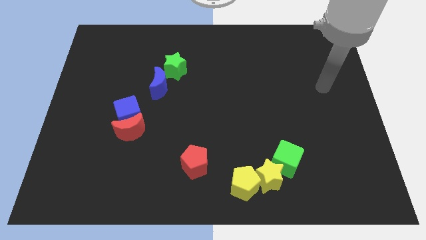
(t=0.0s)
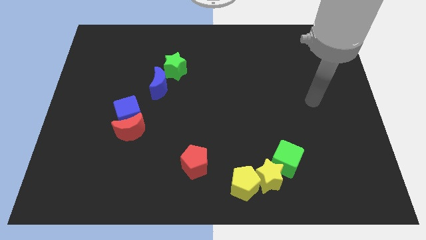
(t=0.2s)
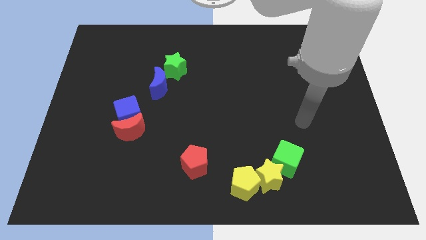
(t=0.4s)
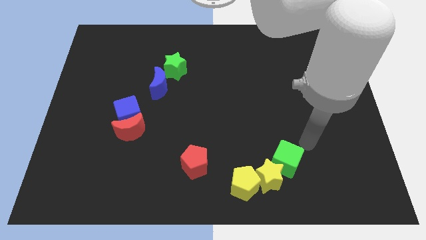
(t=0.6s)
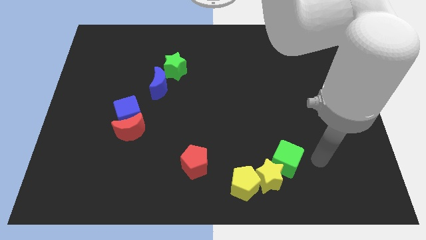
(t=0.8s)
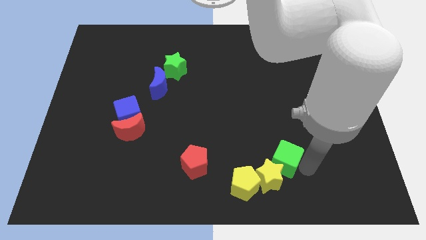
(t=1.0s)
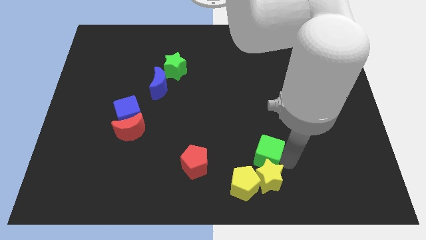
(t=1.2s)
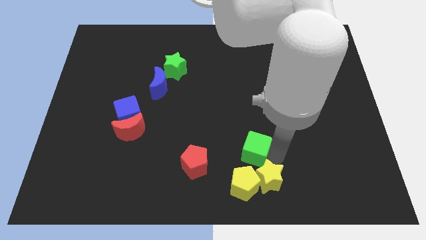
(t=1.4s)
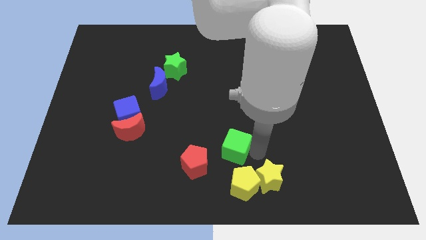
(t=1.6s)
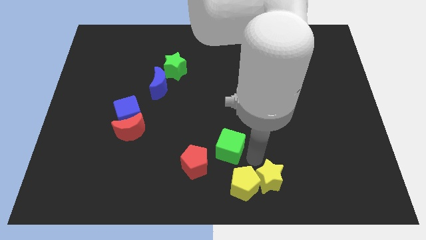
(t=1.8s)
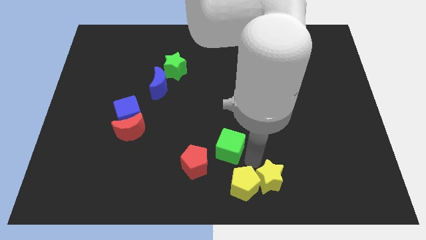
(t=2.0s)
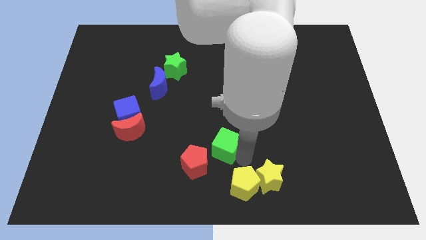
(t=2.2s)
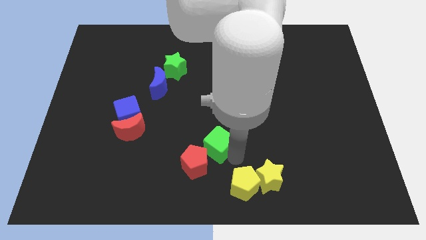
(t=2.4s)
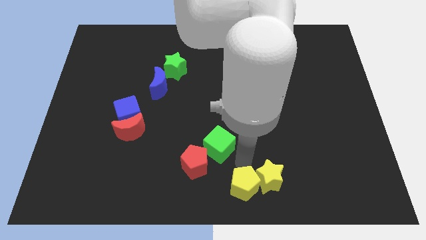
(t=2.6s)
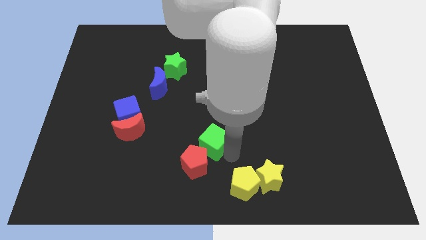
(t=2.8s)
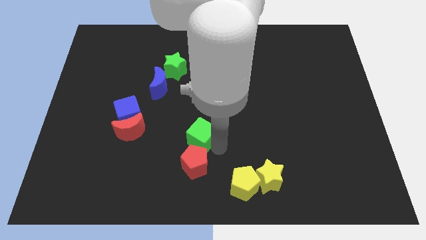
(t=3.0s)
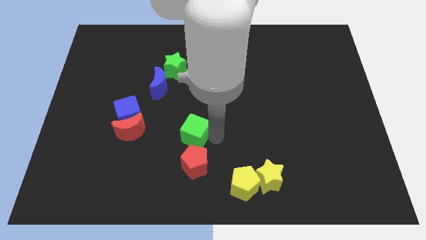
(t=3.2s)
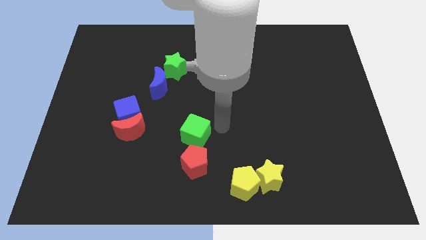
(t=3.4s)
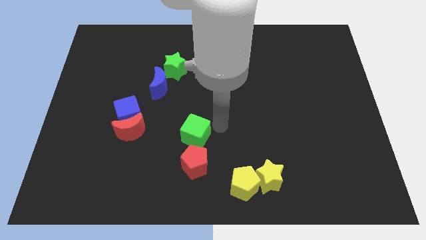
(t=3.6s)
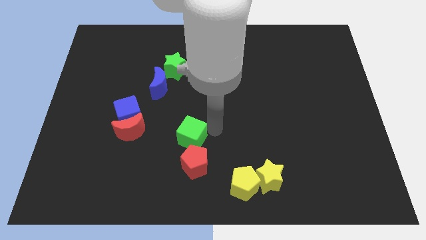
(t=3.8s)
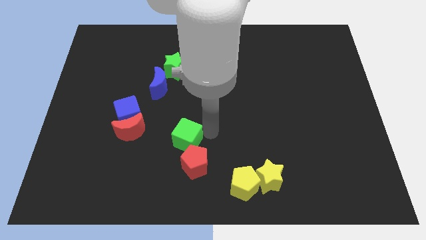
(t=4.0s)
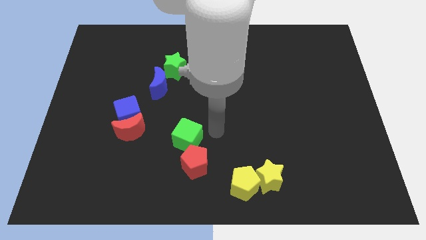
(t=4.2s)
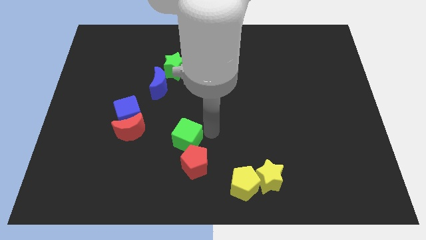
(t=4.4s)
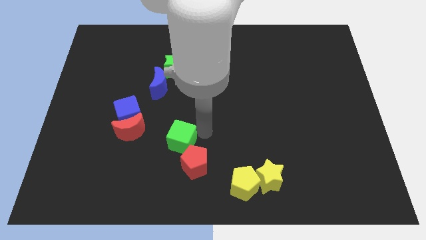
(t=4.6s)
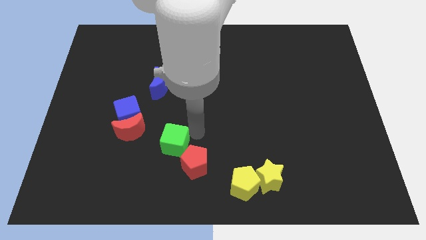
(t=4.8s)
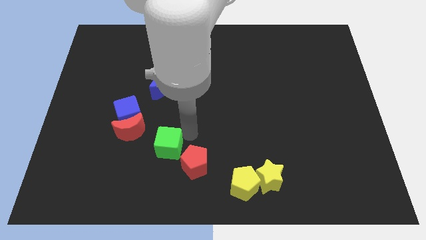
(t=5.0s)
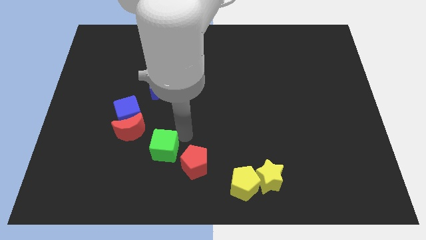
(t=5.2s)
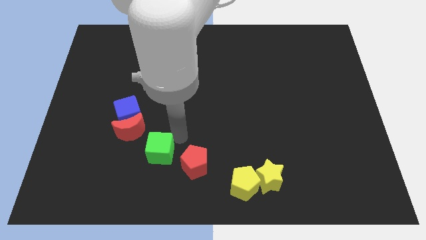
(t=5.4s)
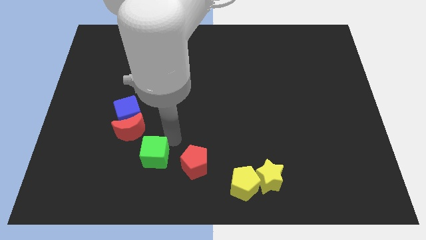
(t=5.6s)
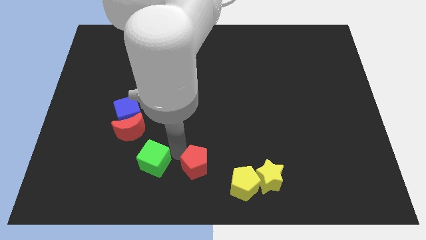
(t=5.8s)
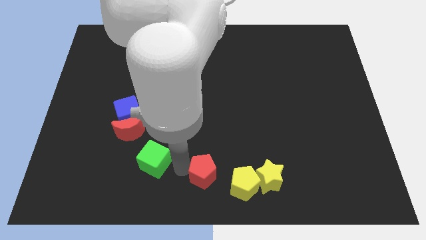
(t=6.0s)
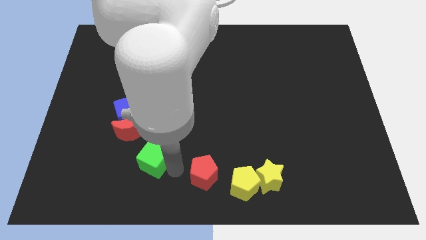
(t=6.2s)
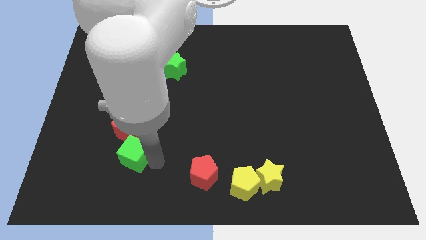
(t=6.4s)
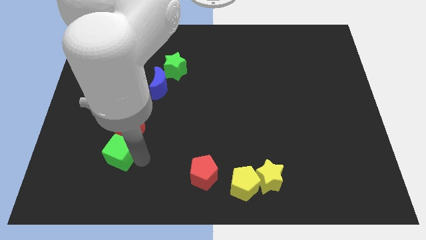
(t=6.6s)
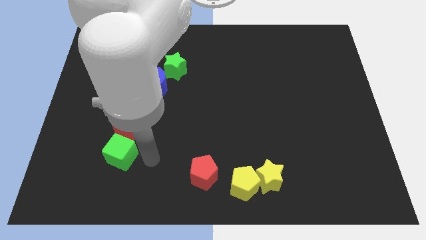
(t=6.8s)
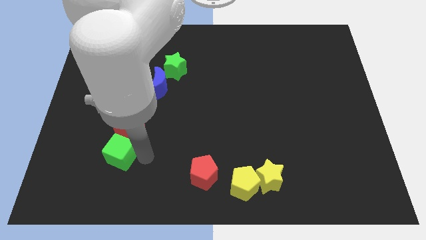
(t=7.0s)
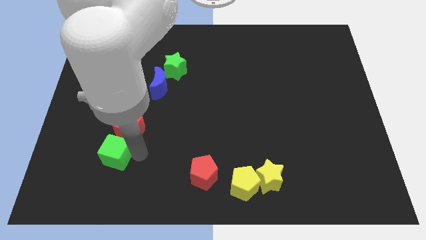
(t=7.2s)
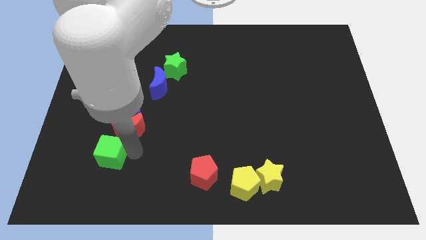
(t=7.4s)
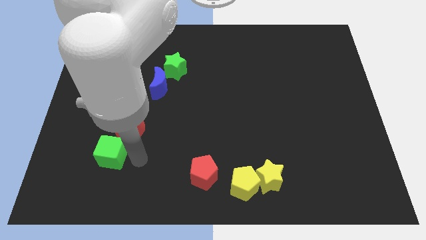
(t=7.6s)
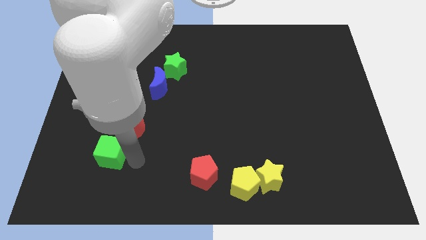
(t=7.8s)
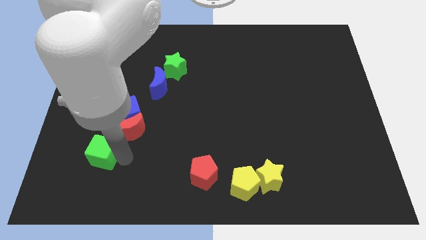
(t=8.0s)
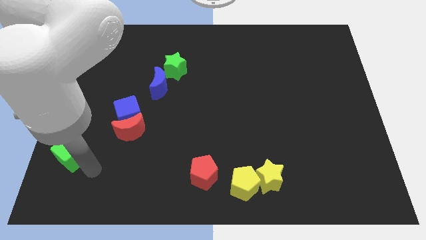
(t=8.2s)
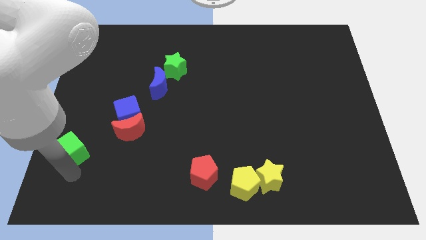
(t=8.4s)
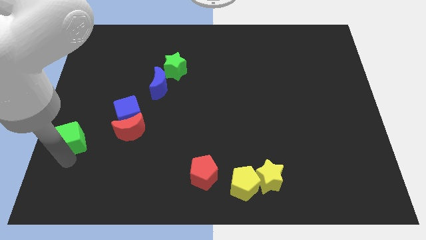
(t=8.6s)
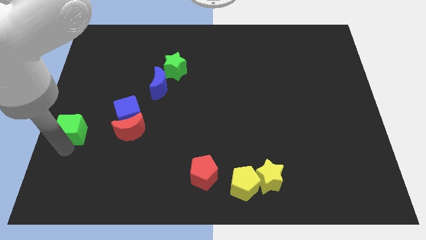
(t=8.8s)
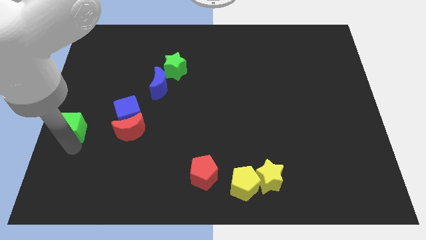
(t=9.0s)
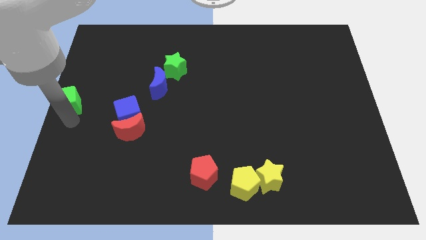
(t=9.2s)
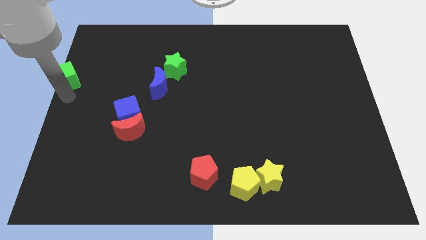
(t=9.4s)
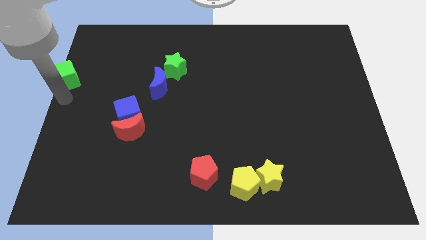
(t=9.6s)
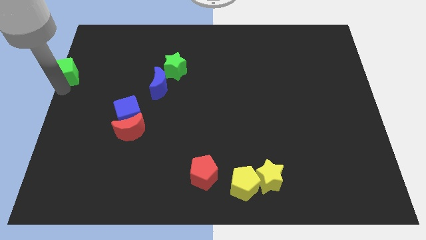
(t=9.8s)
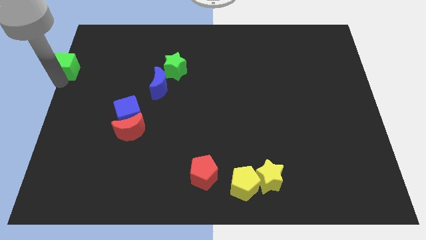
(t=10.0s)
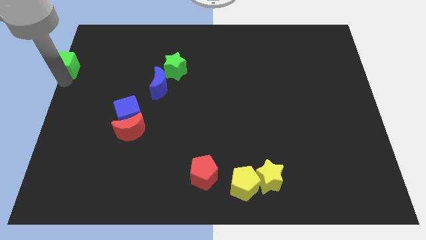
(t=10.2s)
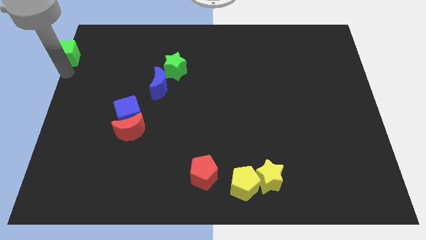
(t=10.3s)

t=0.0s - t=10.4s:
put the green cube to the top left corner

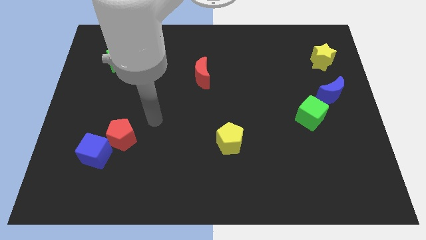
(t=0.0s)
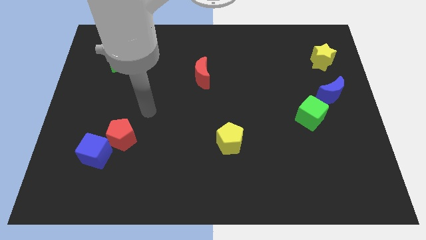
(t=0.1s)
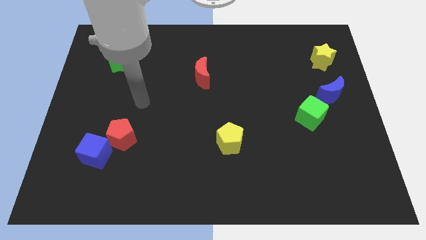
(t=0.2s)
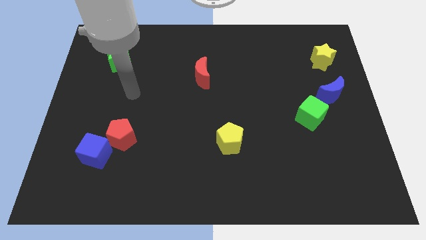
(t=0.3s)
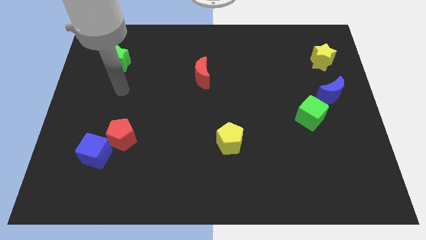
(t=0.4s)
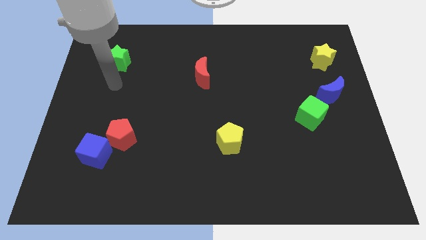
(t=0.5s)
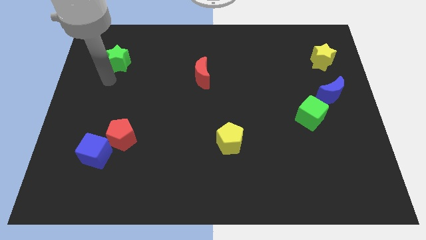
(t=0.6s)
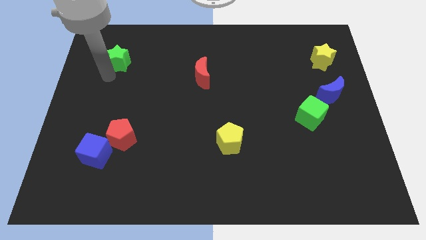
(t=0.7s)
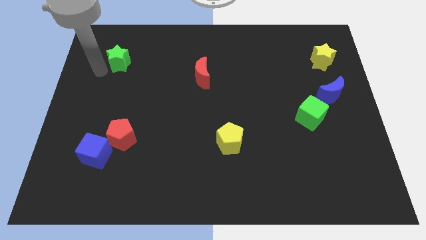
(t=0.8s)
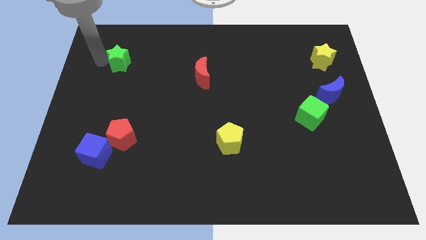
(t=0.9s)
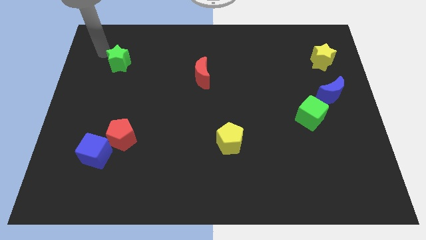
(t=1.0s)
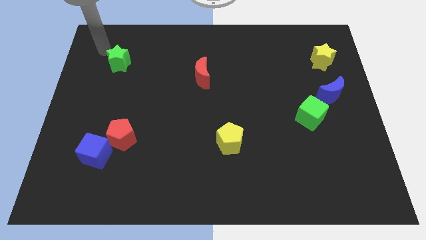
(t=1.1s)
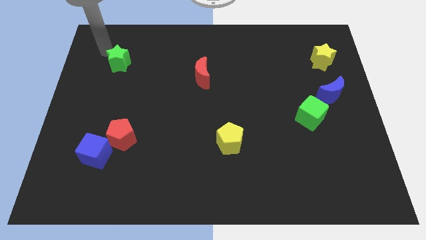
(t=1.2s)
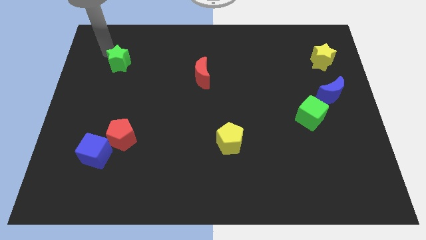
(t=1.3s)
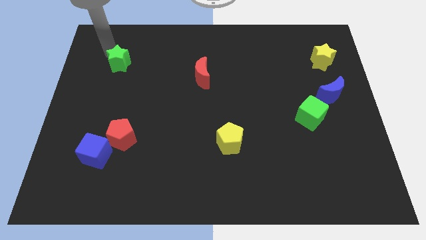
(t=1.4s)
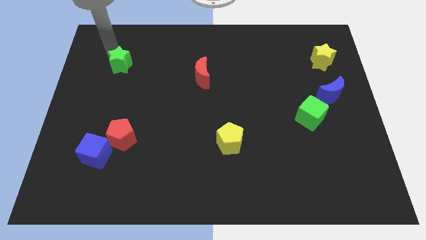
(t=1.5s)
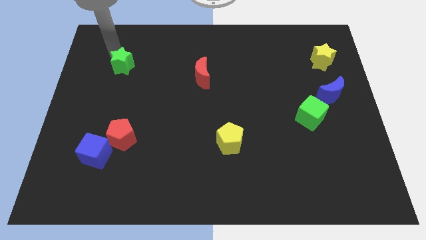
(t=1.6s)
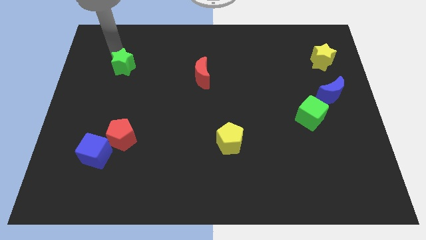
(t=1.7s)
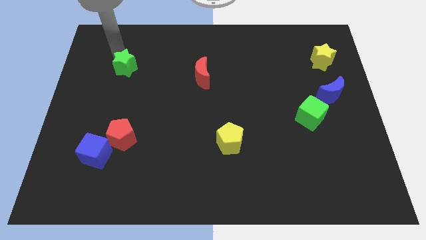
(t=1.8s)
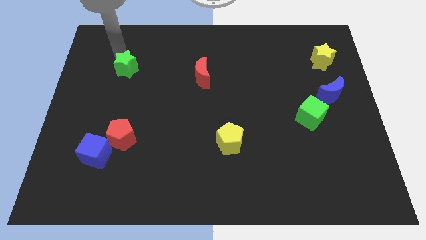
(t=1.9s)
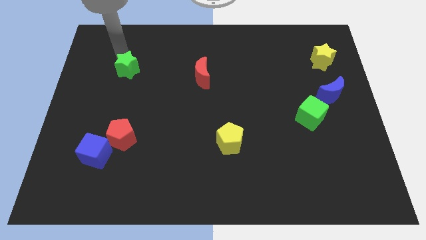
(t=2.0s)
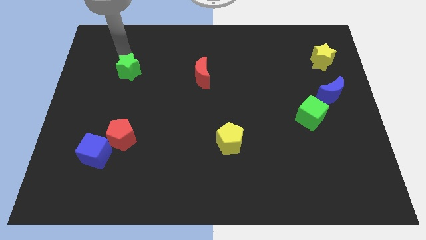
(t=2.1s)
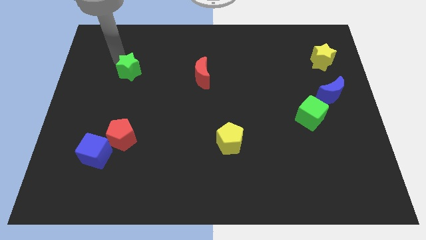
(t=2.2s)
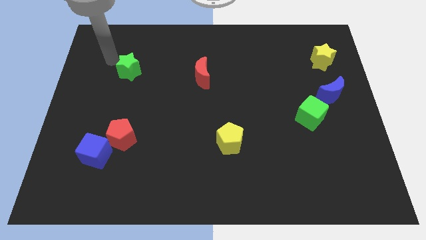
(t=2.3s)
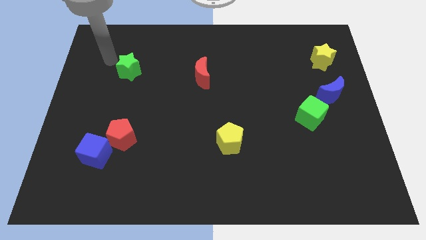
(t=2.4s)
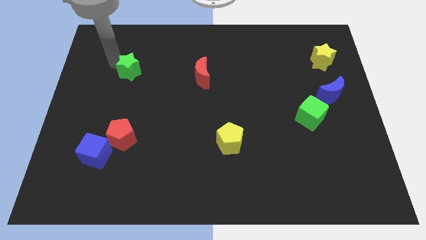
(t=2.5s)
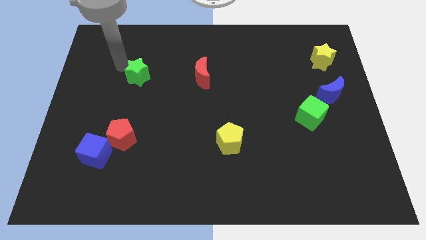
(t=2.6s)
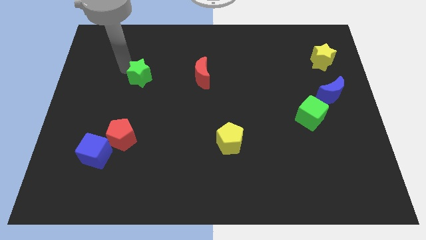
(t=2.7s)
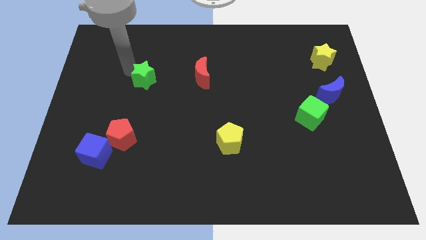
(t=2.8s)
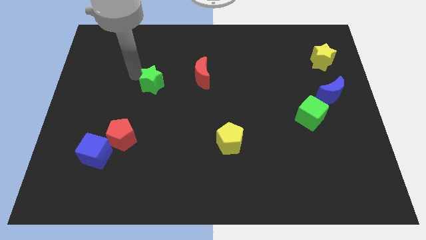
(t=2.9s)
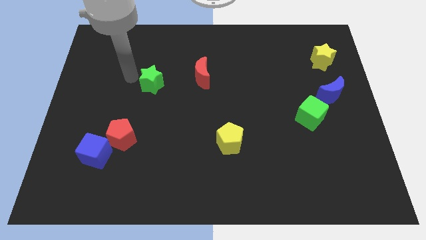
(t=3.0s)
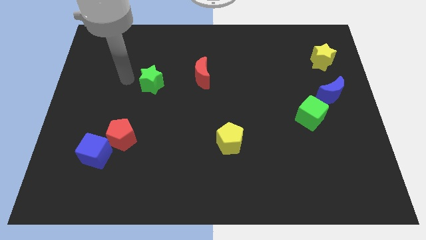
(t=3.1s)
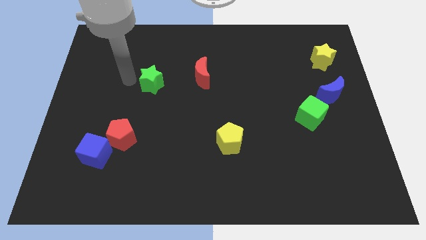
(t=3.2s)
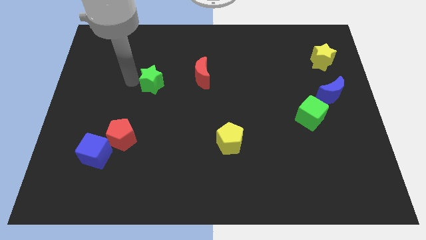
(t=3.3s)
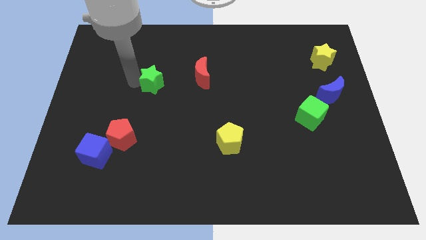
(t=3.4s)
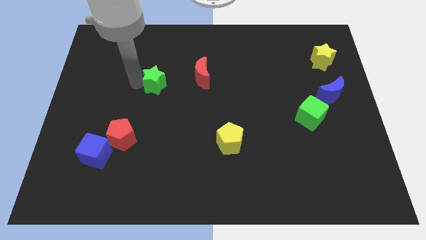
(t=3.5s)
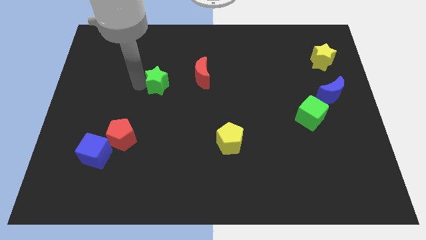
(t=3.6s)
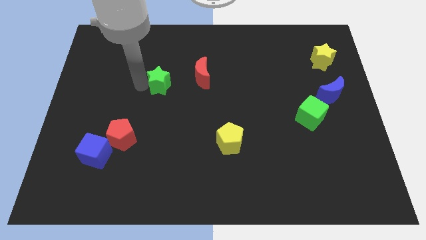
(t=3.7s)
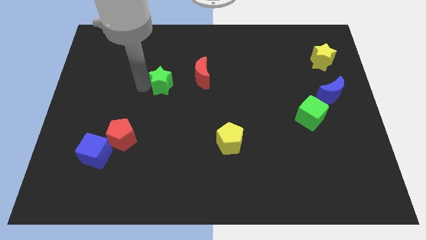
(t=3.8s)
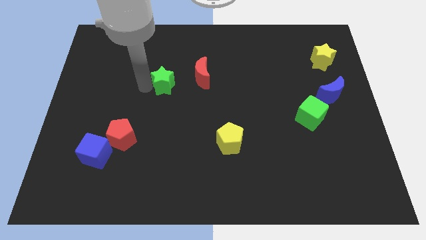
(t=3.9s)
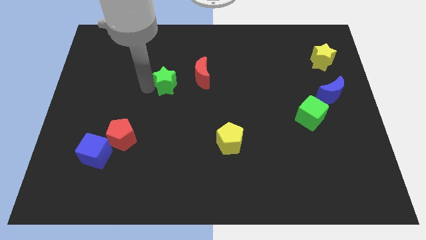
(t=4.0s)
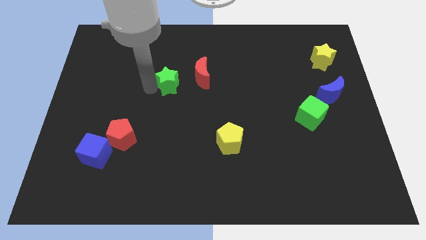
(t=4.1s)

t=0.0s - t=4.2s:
push the green star to the middle of the board
